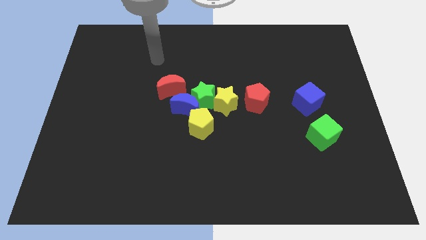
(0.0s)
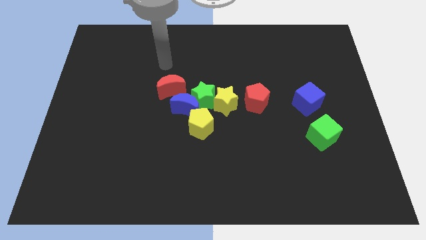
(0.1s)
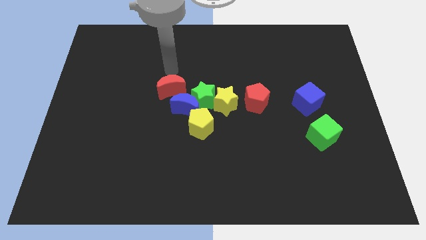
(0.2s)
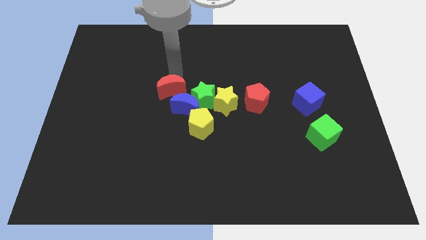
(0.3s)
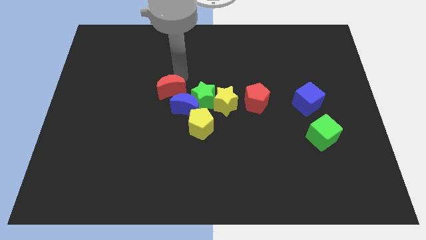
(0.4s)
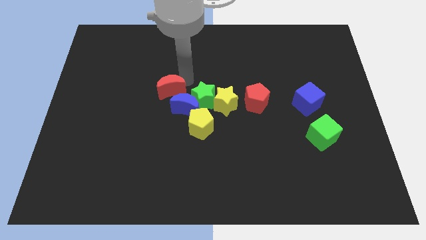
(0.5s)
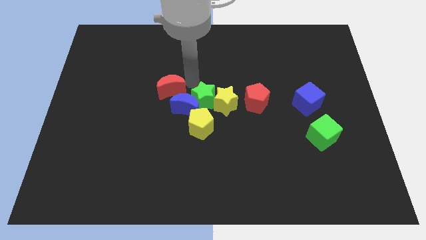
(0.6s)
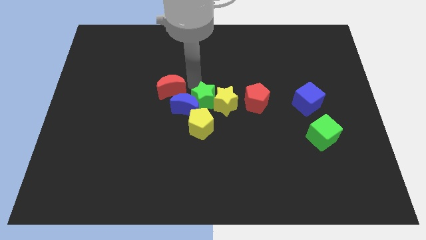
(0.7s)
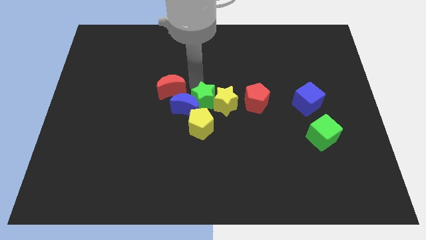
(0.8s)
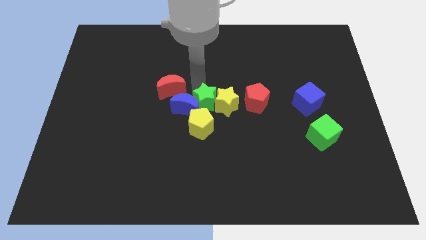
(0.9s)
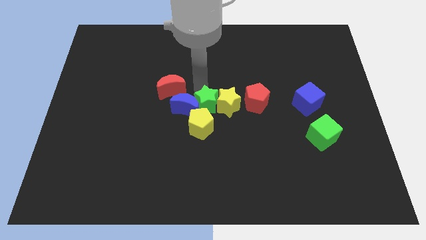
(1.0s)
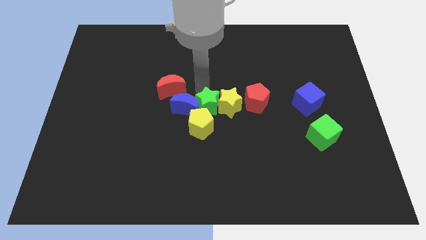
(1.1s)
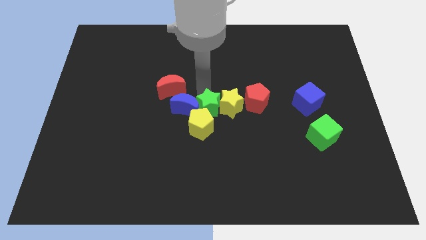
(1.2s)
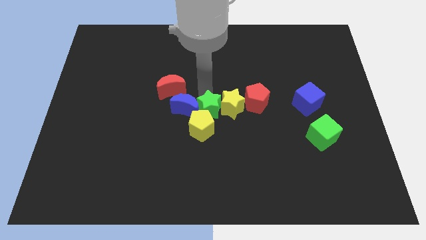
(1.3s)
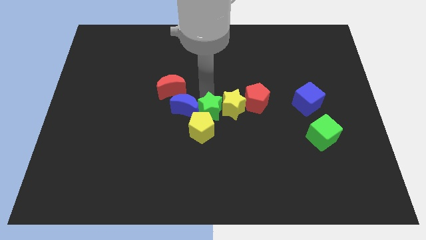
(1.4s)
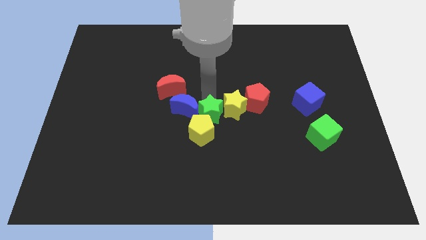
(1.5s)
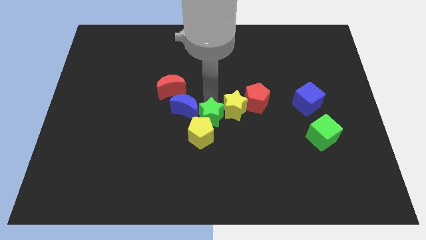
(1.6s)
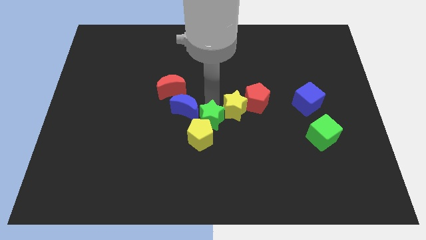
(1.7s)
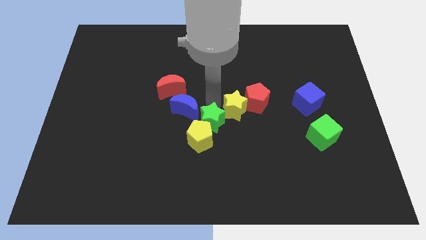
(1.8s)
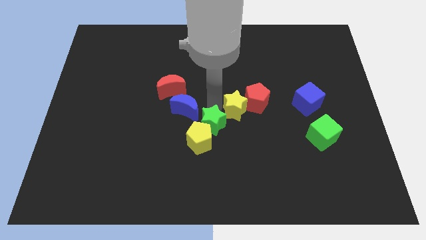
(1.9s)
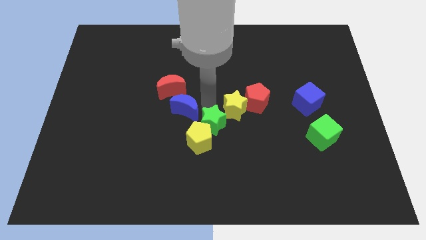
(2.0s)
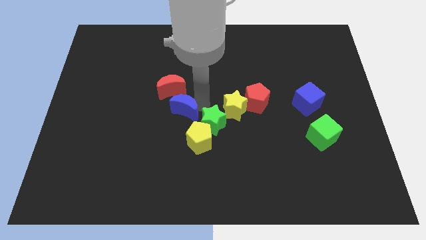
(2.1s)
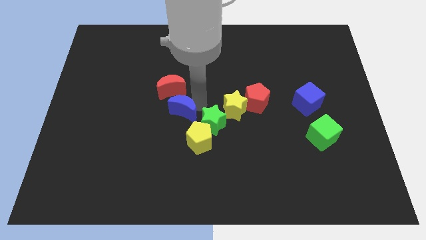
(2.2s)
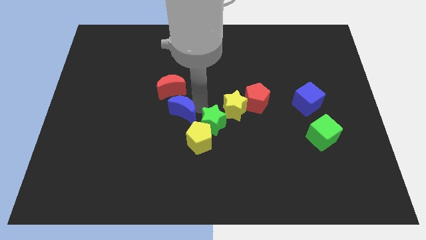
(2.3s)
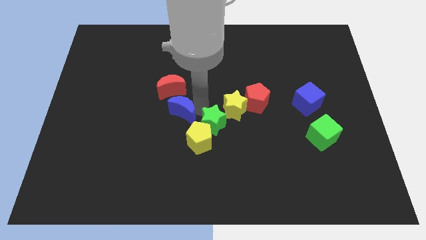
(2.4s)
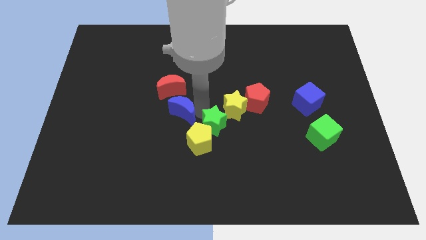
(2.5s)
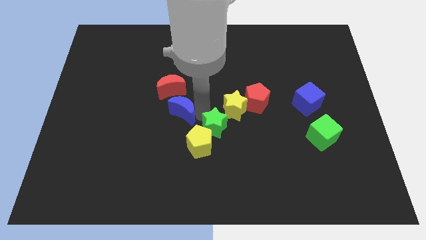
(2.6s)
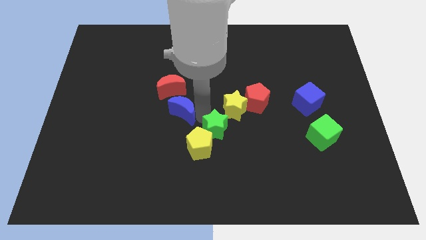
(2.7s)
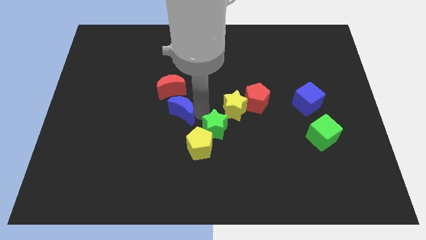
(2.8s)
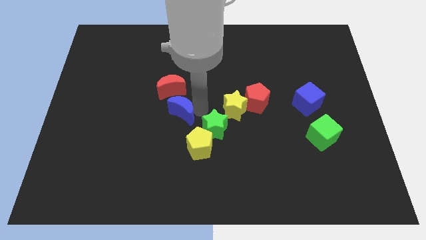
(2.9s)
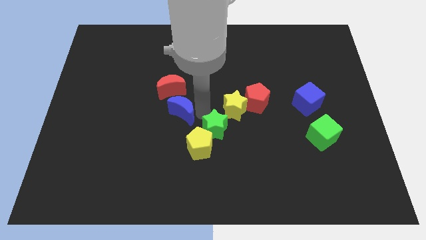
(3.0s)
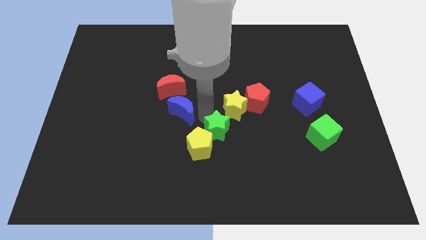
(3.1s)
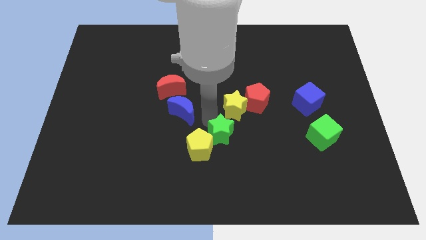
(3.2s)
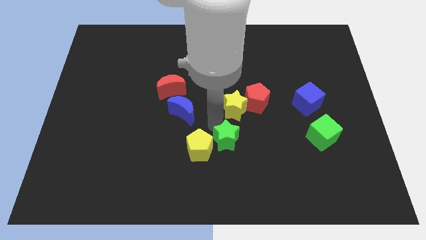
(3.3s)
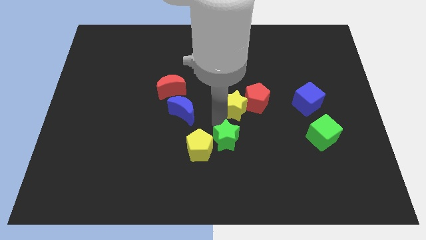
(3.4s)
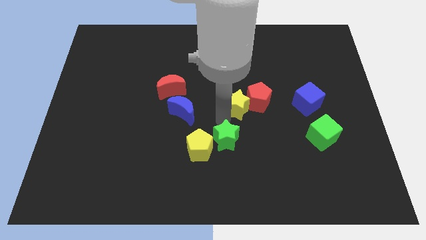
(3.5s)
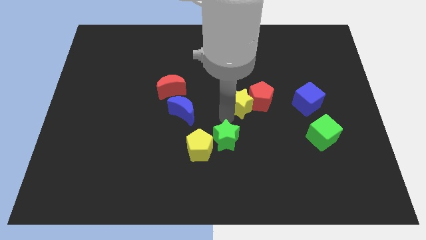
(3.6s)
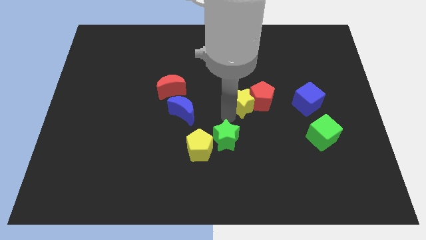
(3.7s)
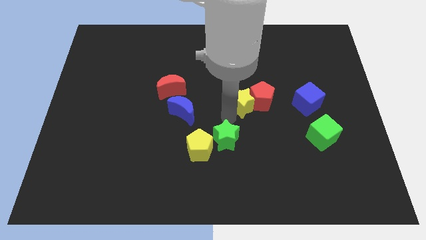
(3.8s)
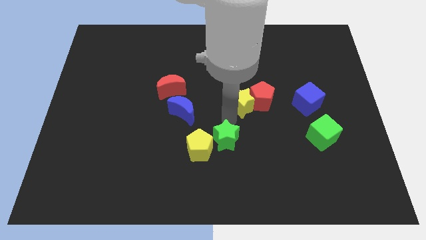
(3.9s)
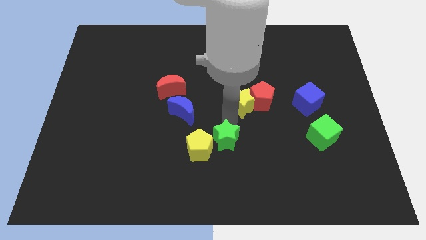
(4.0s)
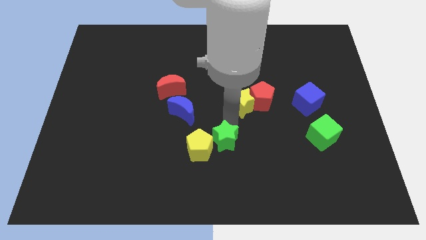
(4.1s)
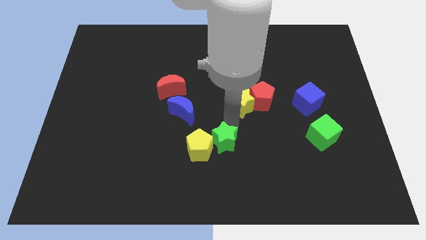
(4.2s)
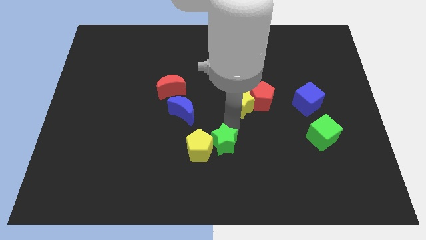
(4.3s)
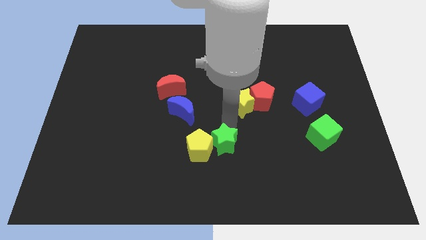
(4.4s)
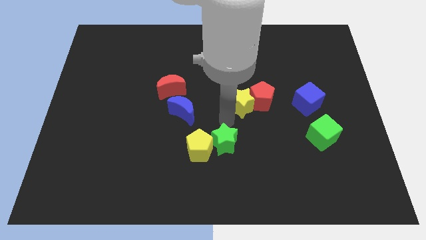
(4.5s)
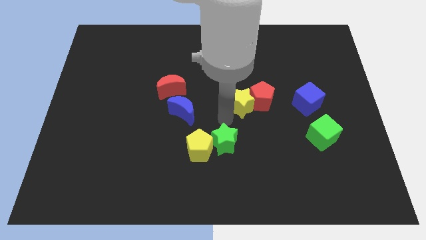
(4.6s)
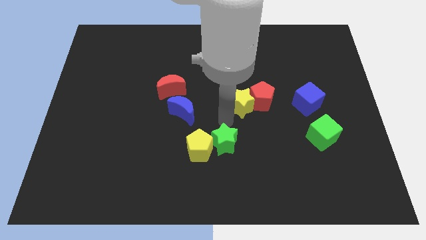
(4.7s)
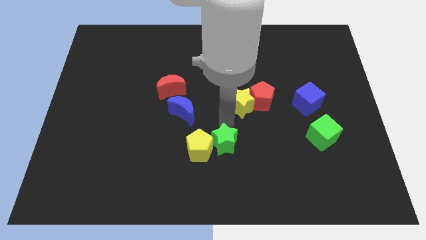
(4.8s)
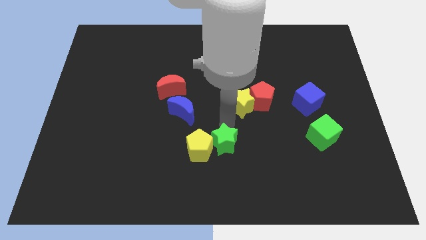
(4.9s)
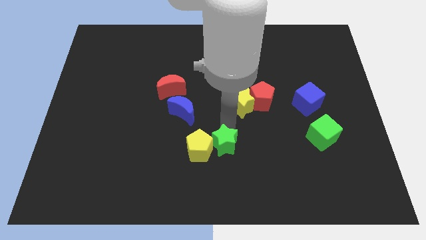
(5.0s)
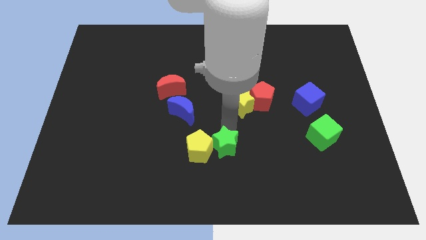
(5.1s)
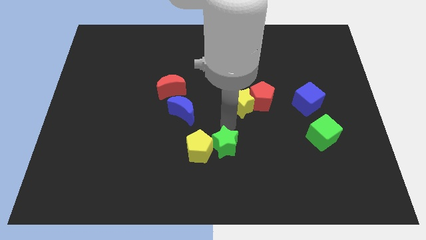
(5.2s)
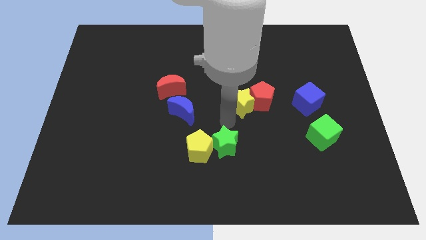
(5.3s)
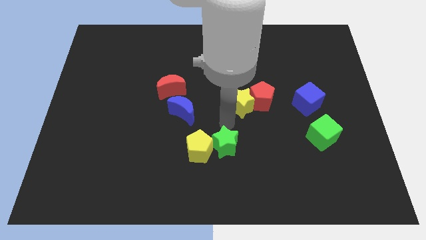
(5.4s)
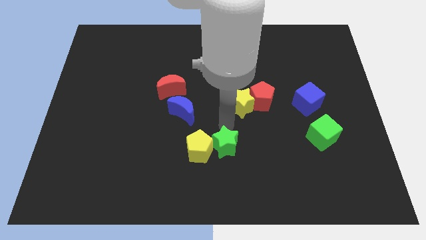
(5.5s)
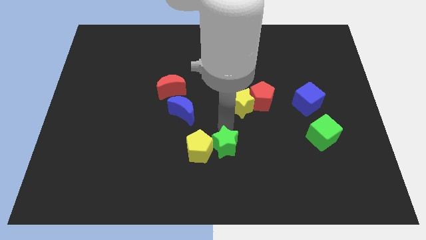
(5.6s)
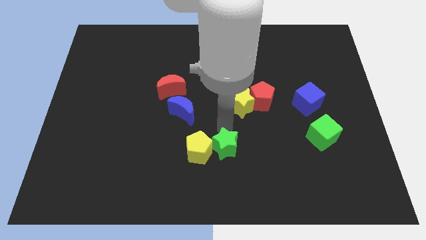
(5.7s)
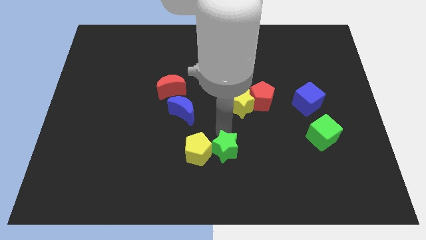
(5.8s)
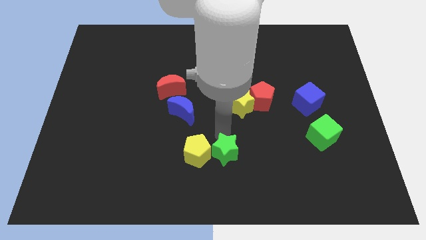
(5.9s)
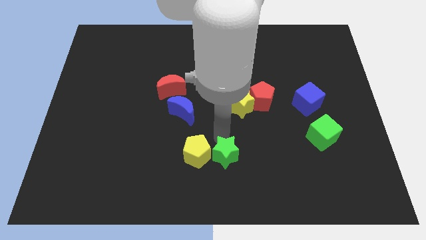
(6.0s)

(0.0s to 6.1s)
slide the green star to the bottom
